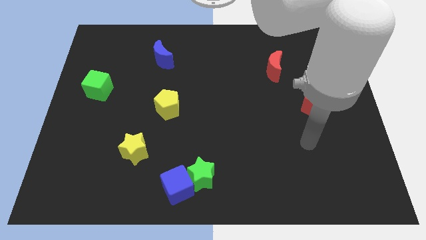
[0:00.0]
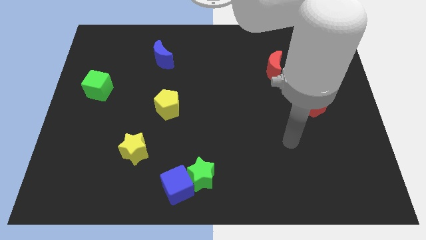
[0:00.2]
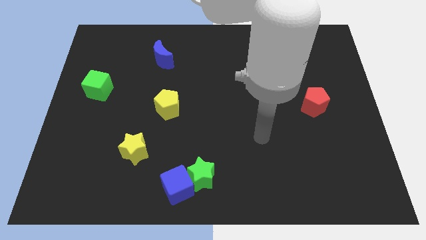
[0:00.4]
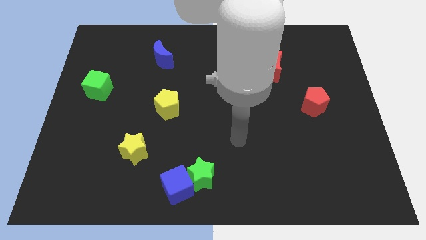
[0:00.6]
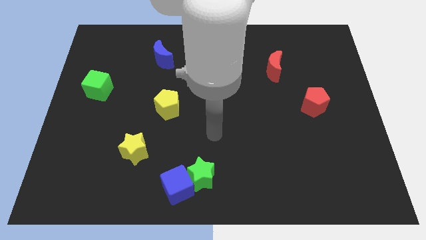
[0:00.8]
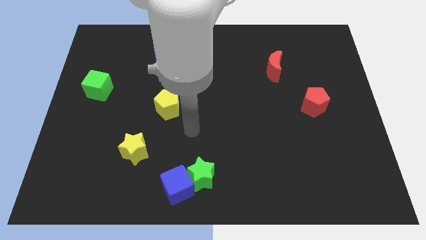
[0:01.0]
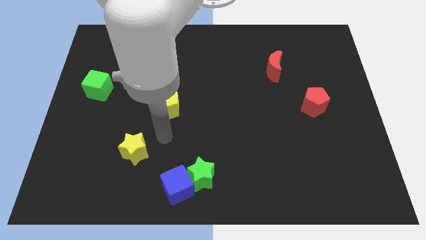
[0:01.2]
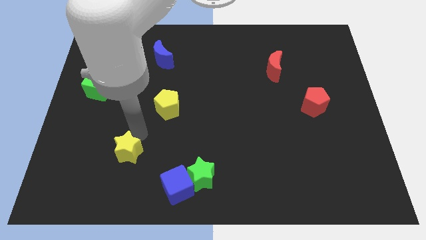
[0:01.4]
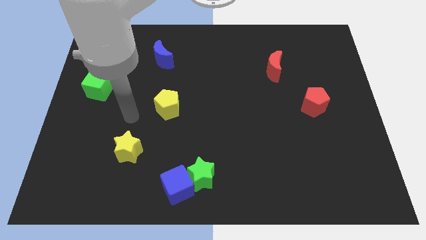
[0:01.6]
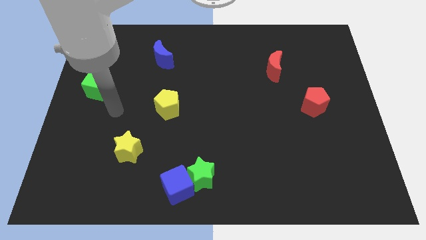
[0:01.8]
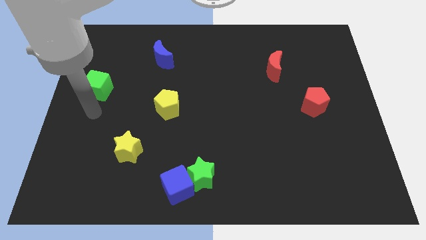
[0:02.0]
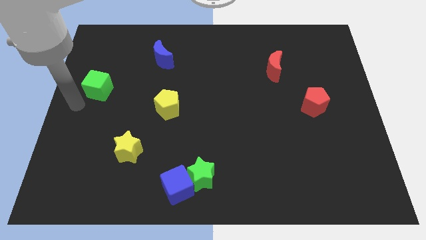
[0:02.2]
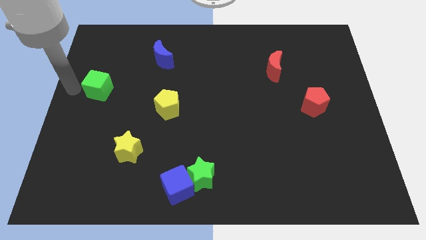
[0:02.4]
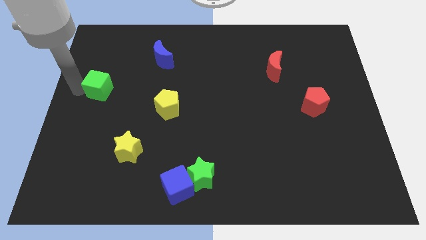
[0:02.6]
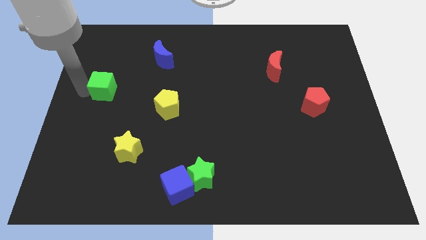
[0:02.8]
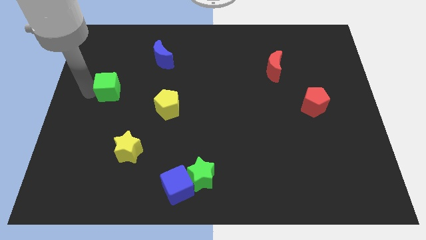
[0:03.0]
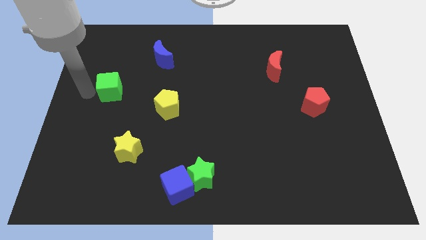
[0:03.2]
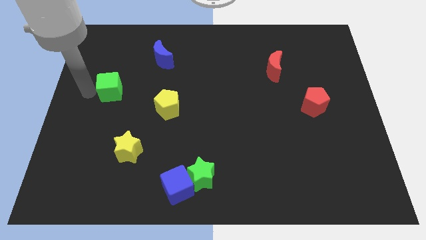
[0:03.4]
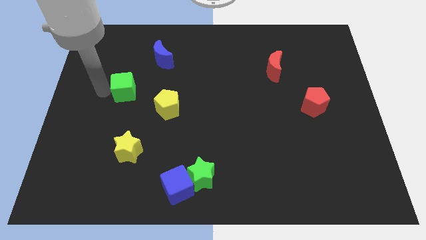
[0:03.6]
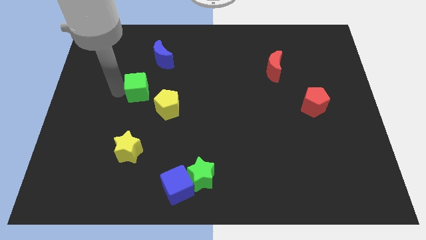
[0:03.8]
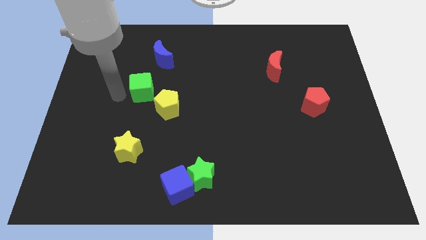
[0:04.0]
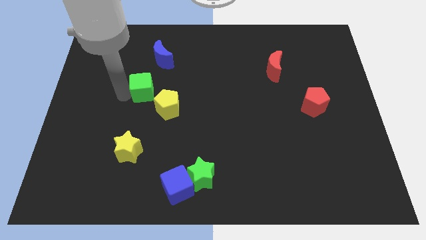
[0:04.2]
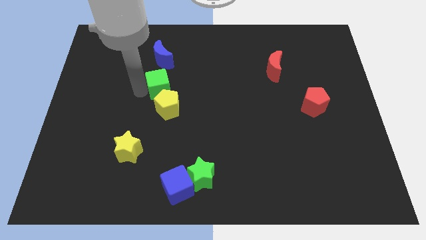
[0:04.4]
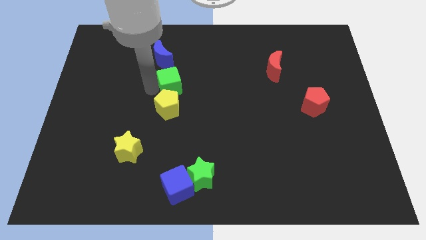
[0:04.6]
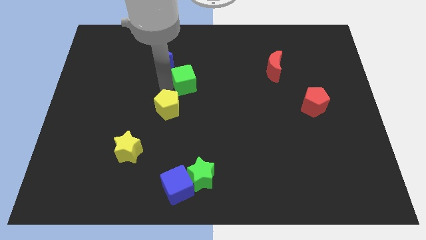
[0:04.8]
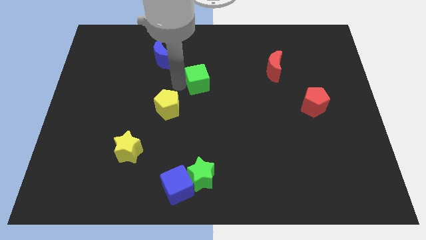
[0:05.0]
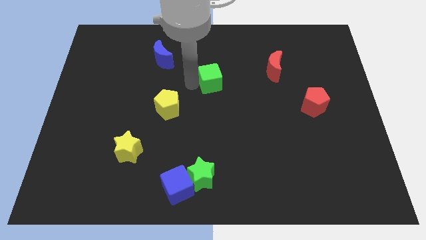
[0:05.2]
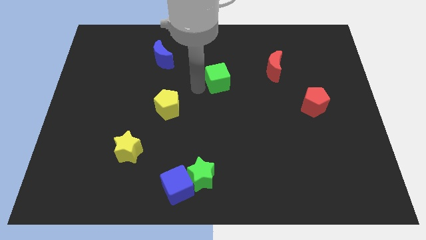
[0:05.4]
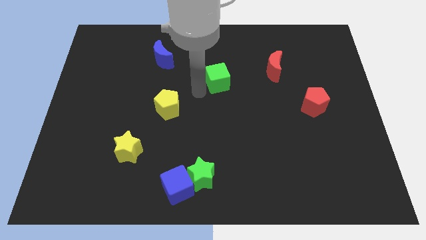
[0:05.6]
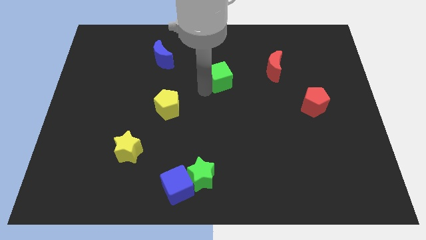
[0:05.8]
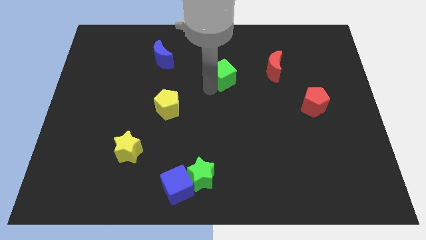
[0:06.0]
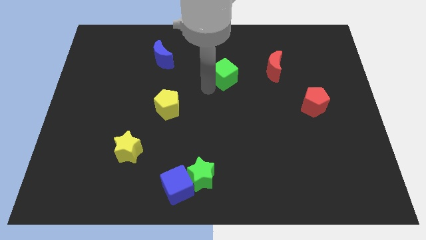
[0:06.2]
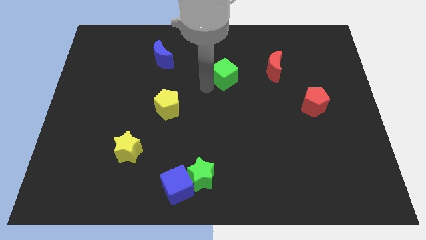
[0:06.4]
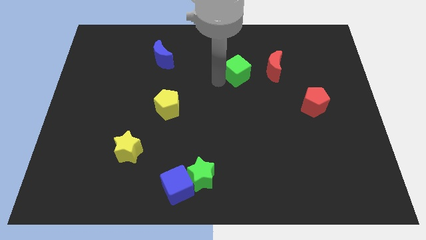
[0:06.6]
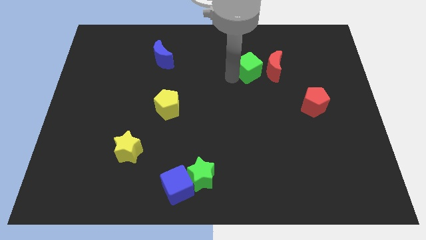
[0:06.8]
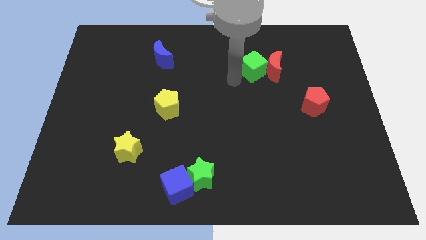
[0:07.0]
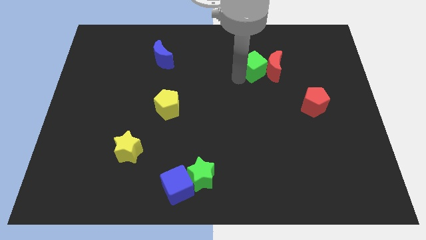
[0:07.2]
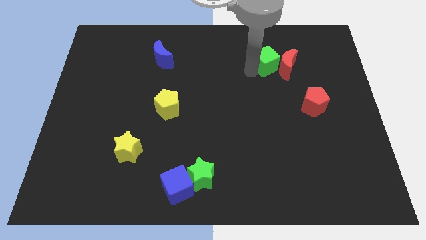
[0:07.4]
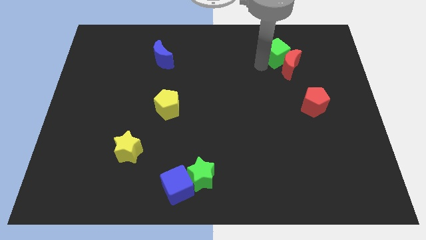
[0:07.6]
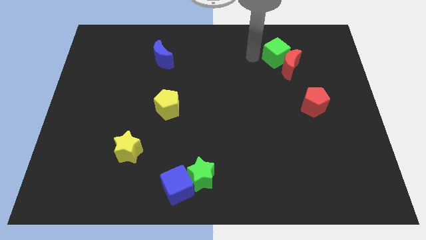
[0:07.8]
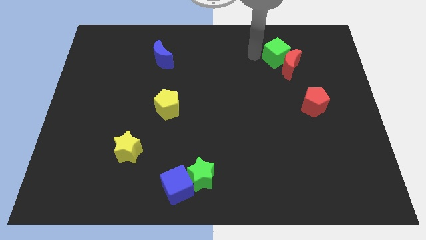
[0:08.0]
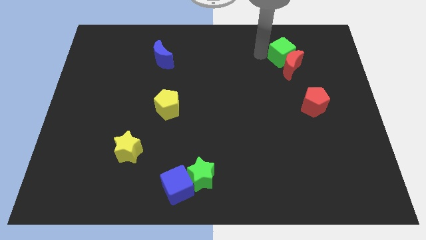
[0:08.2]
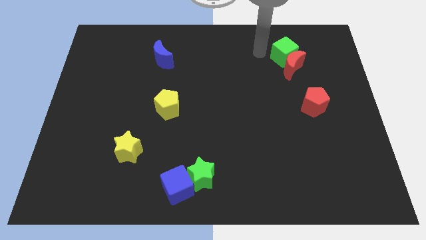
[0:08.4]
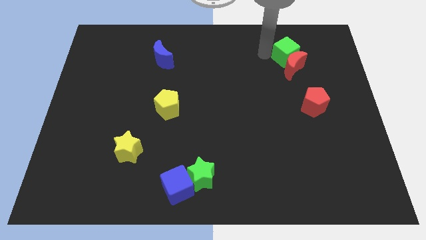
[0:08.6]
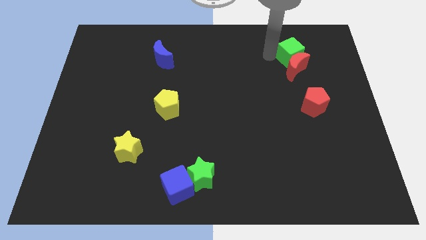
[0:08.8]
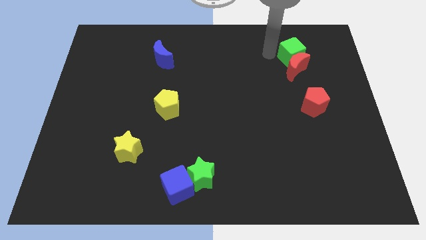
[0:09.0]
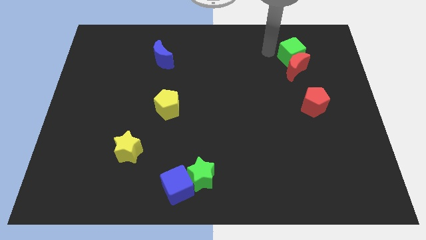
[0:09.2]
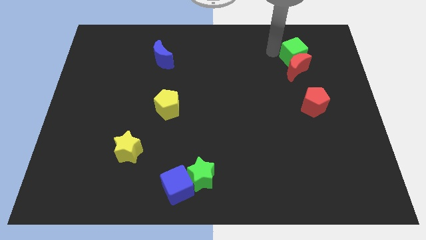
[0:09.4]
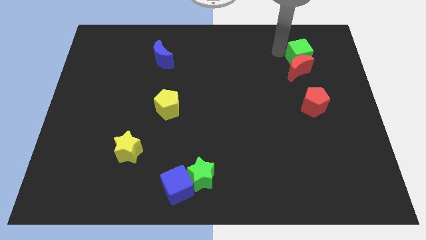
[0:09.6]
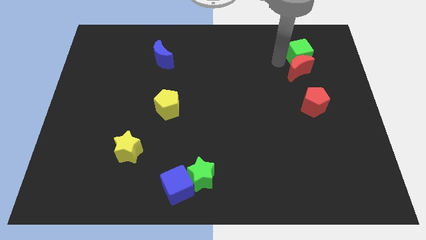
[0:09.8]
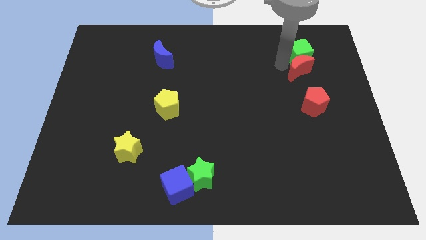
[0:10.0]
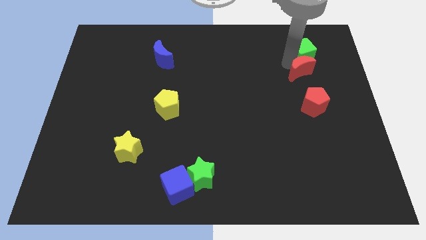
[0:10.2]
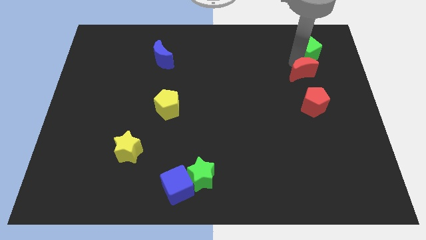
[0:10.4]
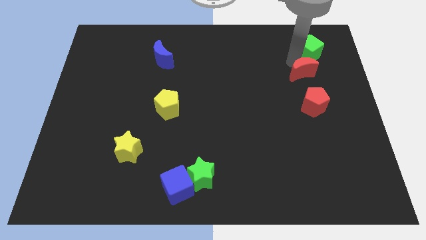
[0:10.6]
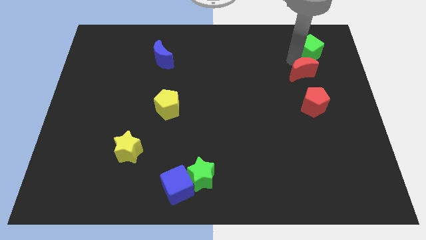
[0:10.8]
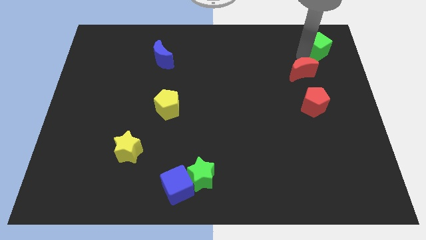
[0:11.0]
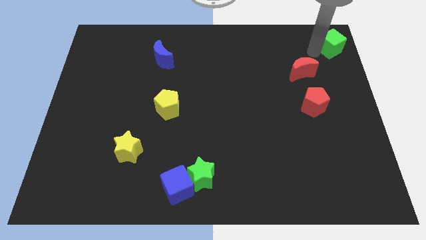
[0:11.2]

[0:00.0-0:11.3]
push the green cube to the top right
